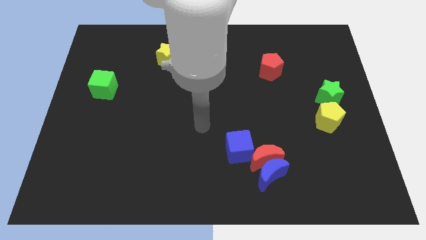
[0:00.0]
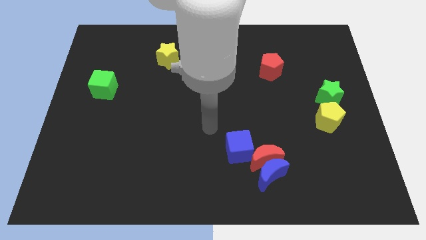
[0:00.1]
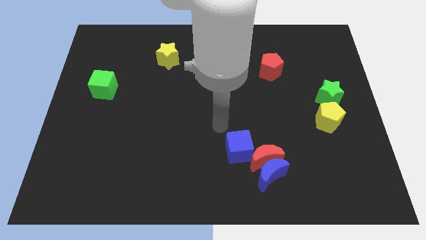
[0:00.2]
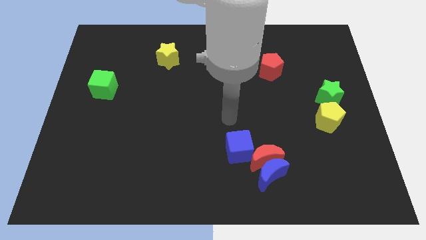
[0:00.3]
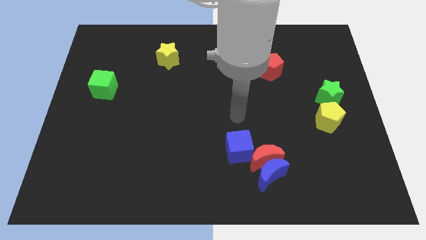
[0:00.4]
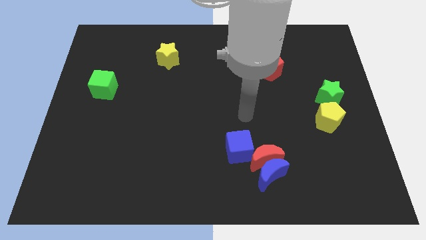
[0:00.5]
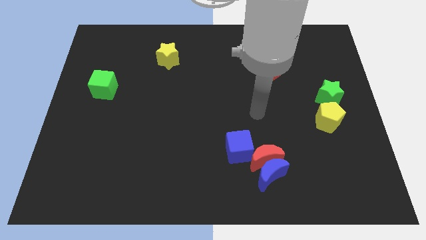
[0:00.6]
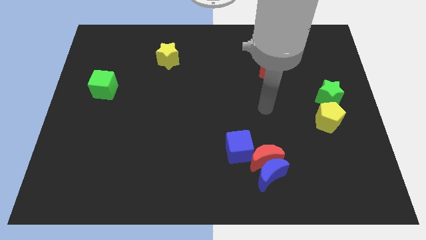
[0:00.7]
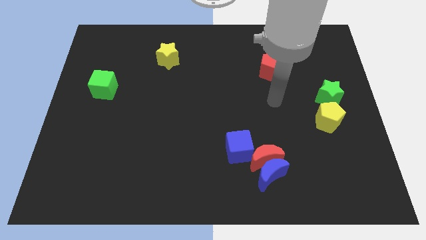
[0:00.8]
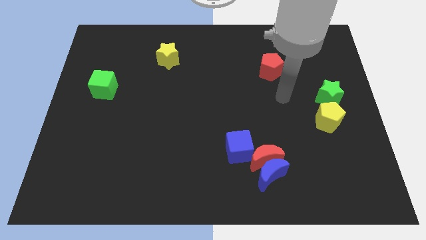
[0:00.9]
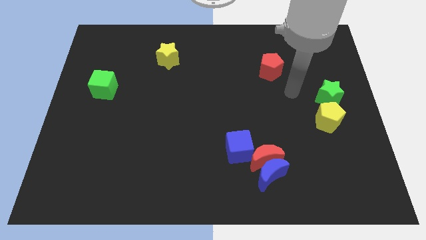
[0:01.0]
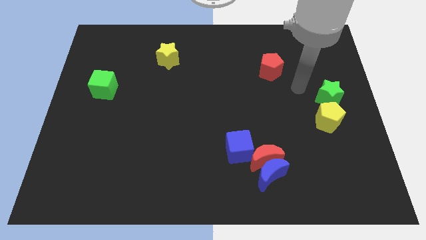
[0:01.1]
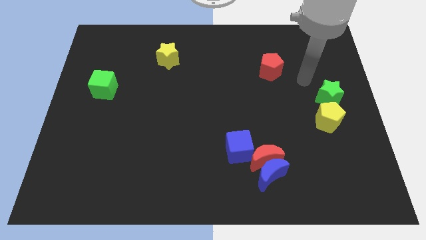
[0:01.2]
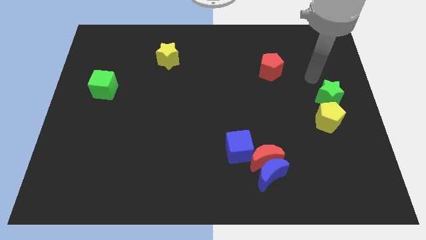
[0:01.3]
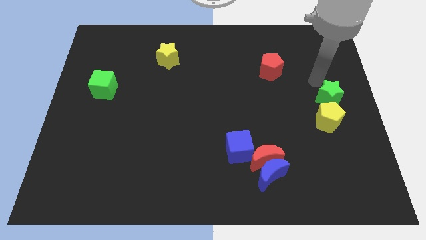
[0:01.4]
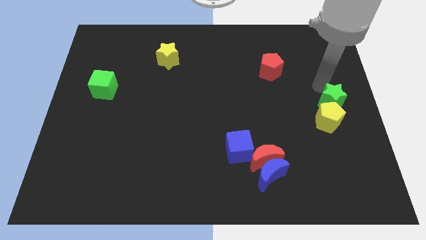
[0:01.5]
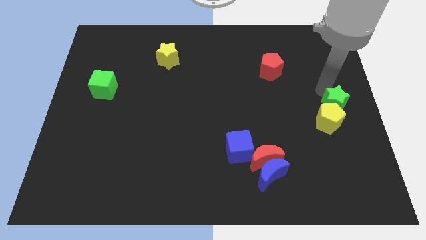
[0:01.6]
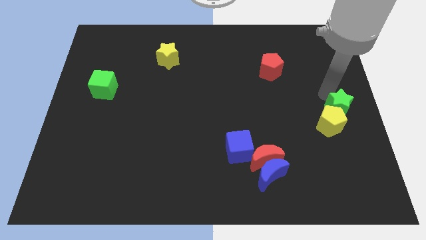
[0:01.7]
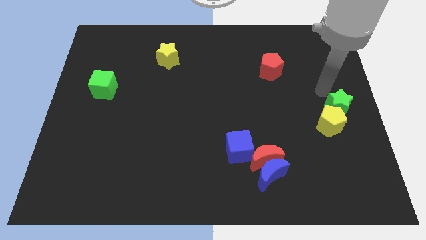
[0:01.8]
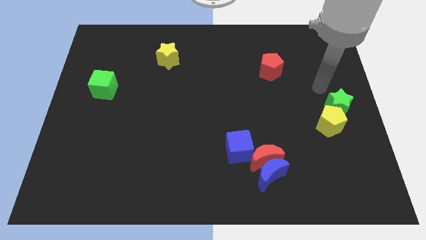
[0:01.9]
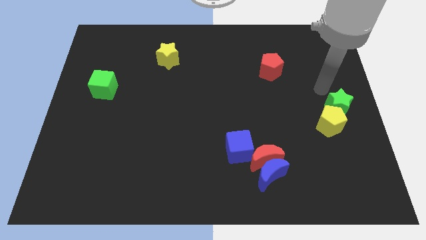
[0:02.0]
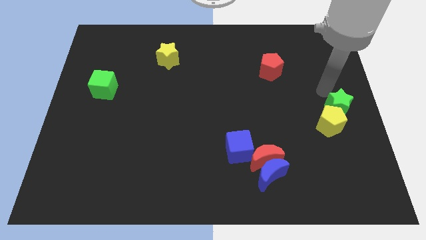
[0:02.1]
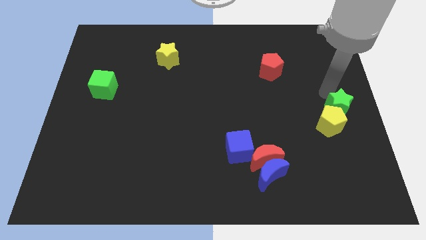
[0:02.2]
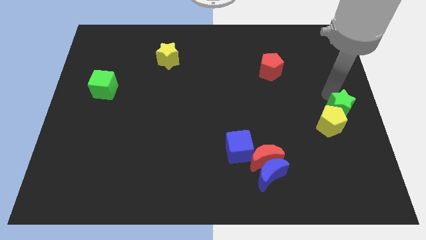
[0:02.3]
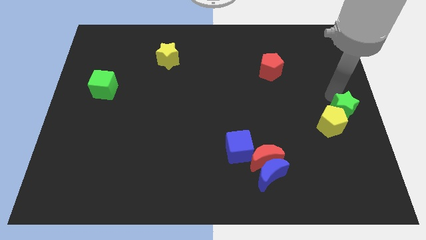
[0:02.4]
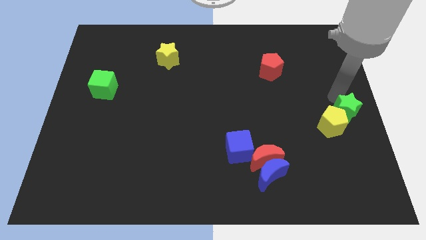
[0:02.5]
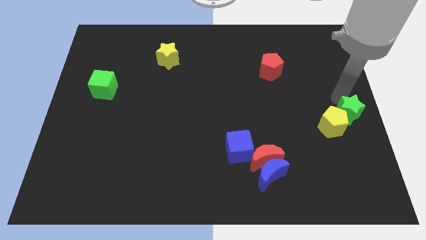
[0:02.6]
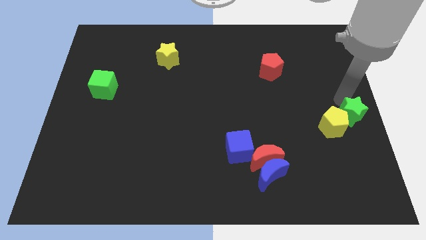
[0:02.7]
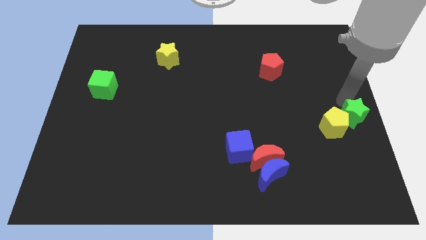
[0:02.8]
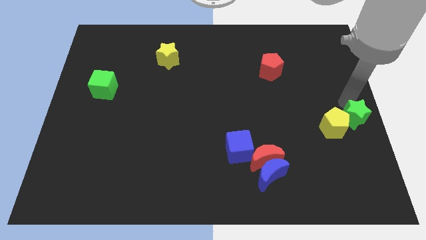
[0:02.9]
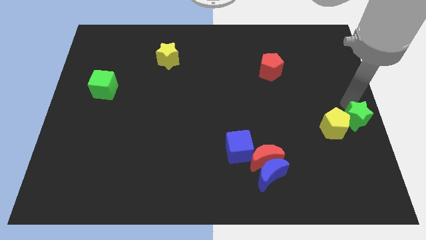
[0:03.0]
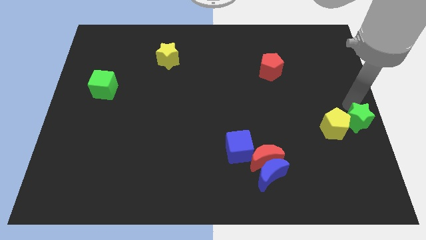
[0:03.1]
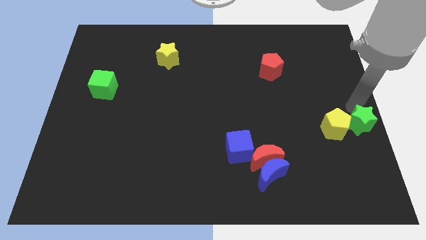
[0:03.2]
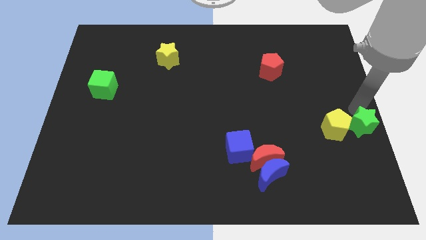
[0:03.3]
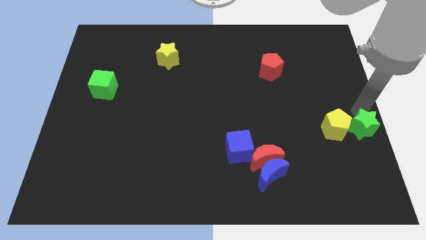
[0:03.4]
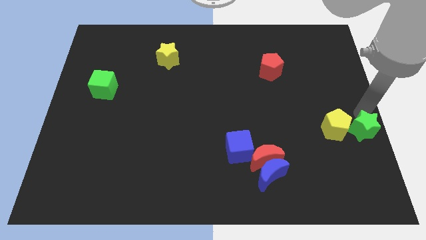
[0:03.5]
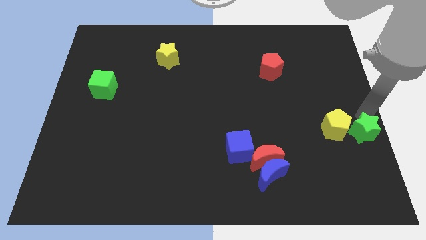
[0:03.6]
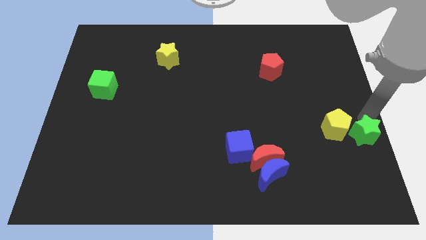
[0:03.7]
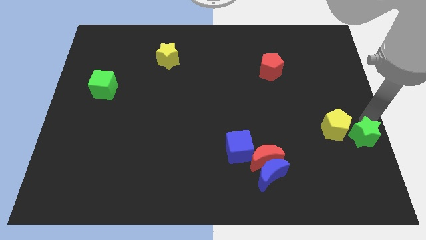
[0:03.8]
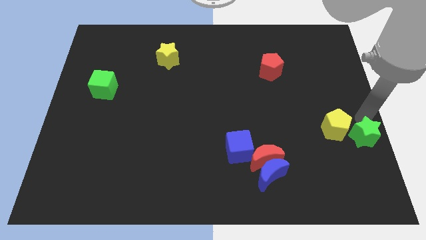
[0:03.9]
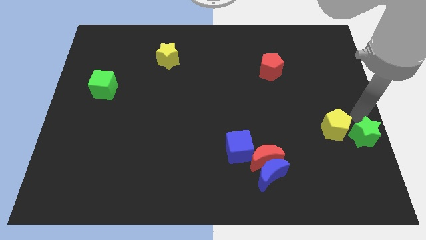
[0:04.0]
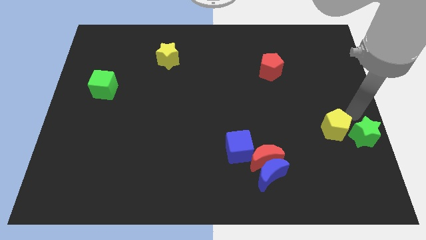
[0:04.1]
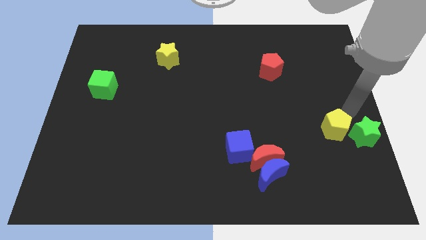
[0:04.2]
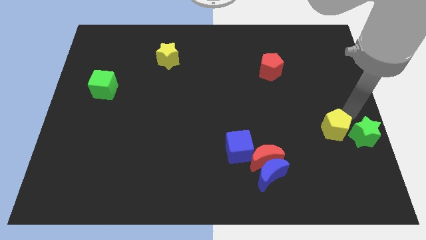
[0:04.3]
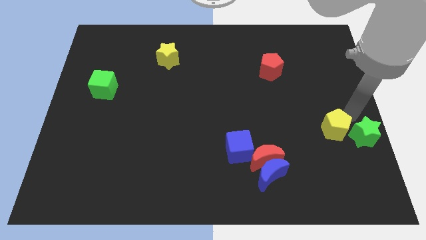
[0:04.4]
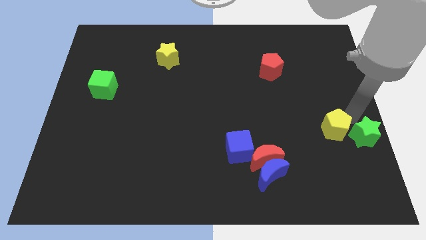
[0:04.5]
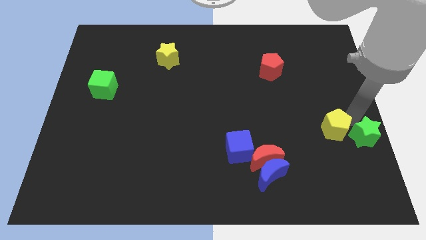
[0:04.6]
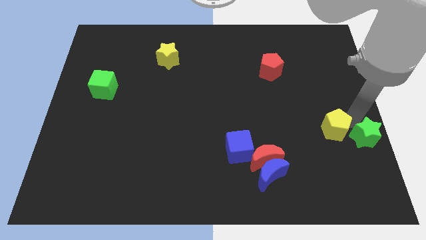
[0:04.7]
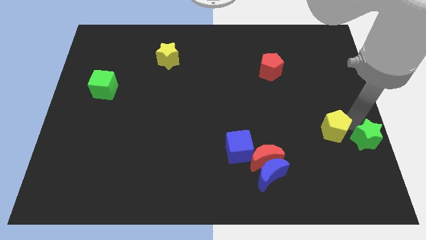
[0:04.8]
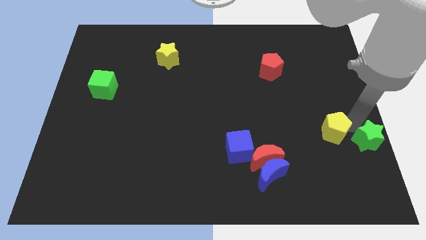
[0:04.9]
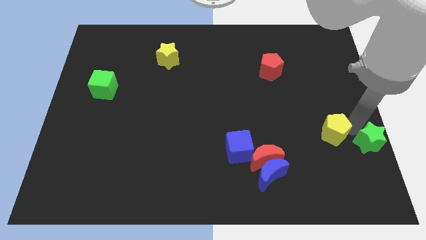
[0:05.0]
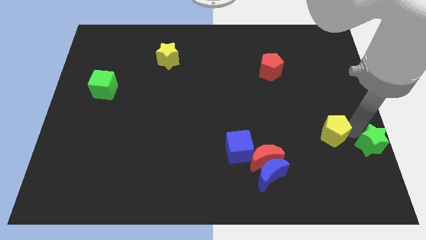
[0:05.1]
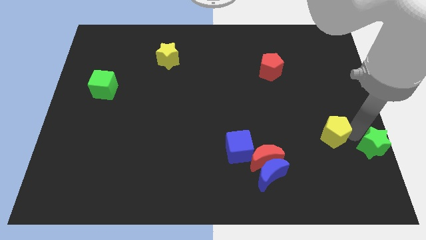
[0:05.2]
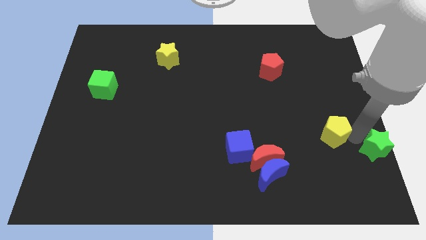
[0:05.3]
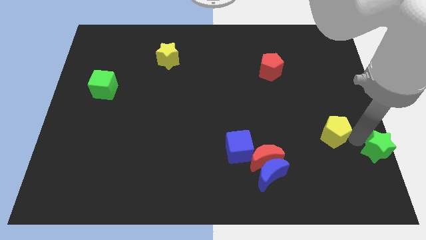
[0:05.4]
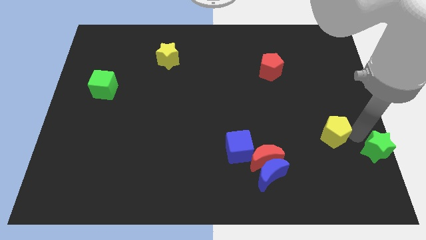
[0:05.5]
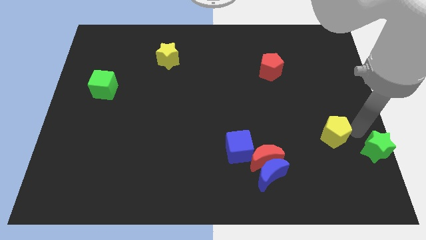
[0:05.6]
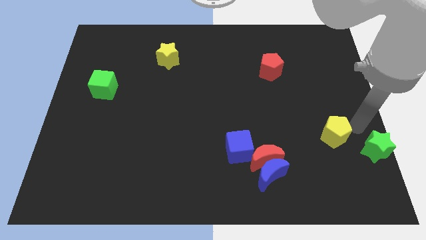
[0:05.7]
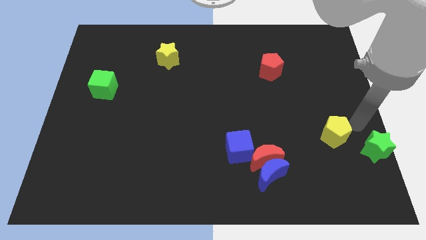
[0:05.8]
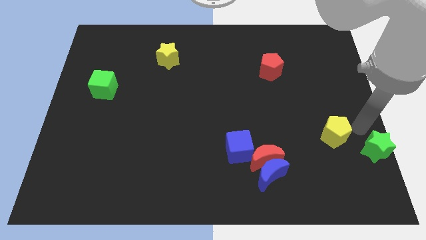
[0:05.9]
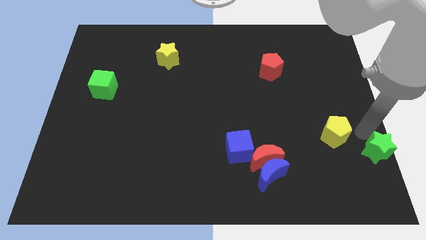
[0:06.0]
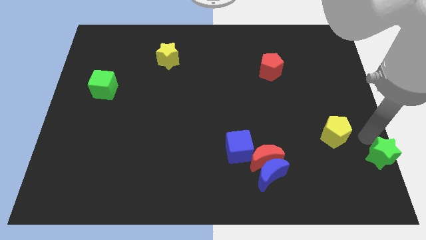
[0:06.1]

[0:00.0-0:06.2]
put the green star to the bottom right corner

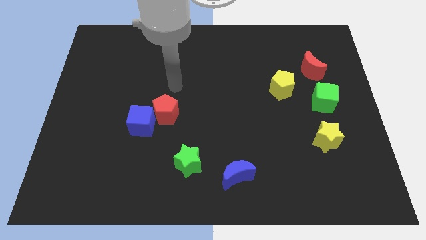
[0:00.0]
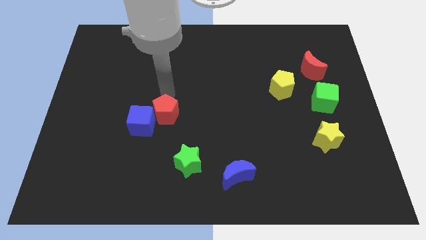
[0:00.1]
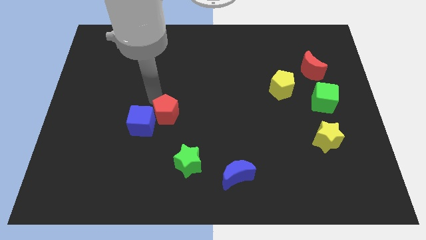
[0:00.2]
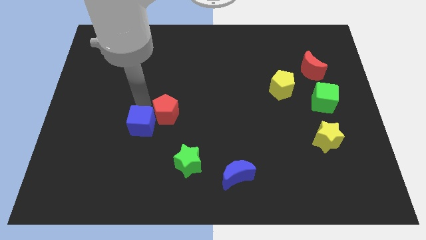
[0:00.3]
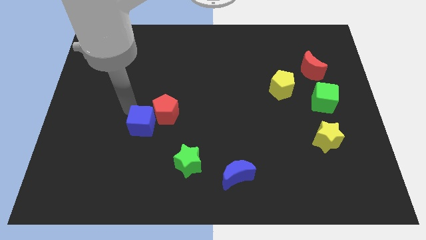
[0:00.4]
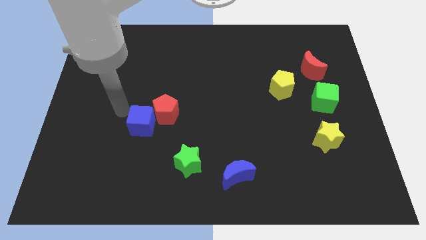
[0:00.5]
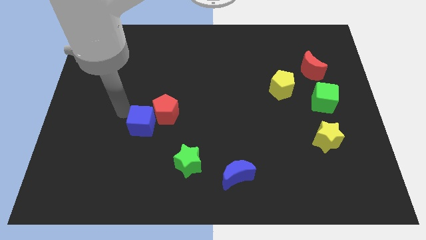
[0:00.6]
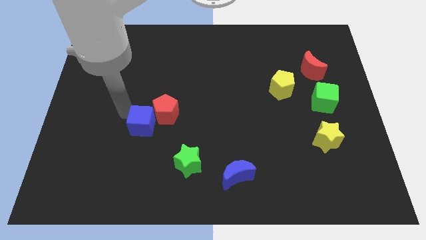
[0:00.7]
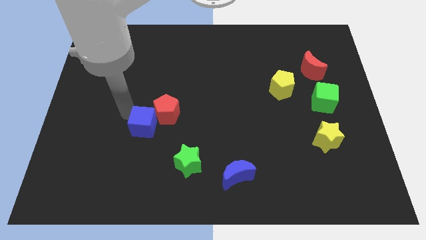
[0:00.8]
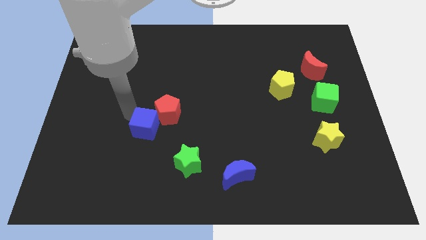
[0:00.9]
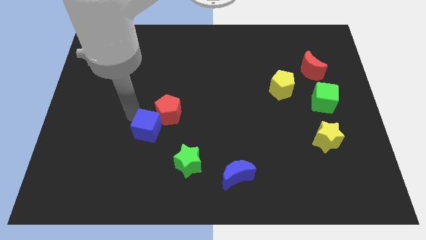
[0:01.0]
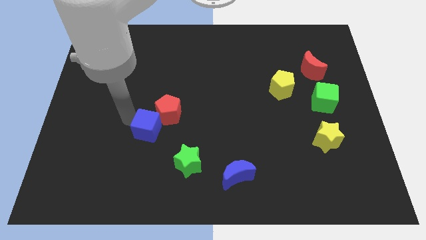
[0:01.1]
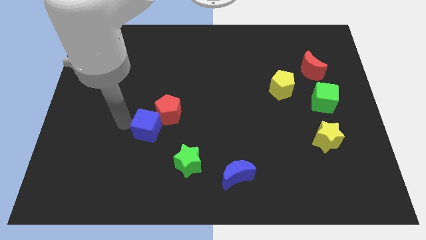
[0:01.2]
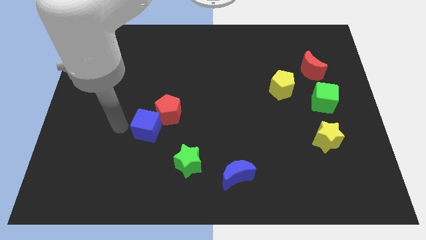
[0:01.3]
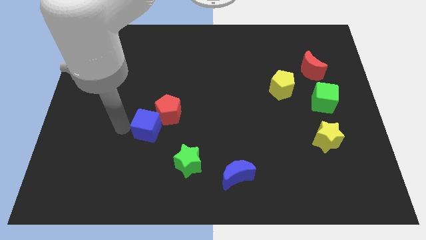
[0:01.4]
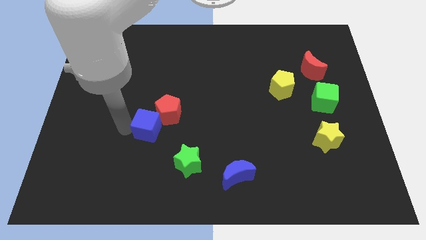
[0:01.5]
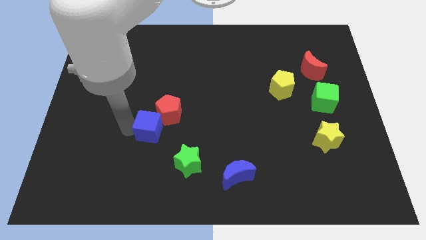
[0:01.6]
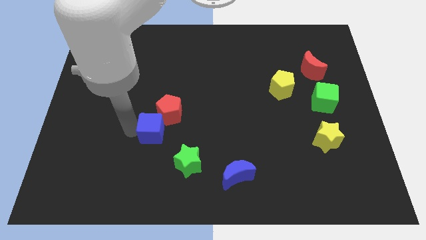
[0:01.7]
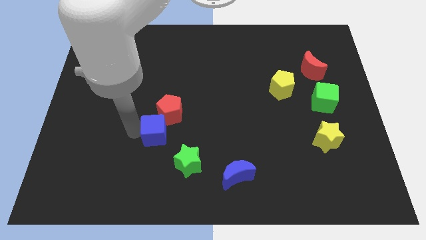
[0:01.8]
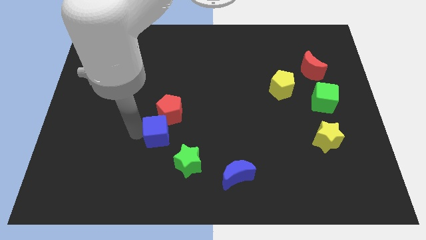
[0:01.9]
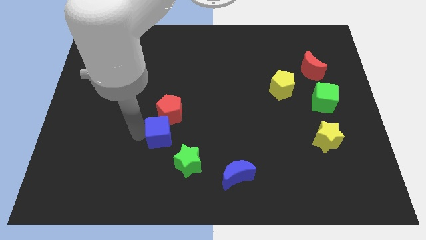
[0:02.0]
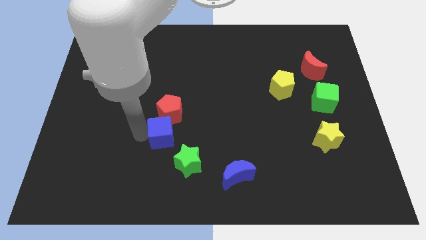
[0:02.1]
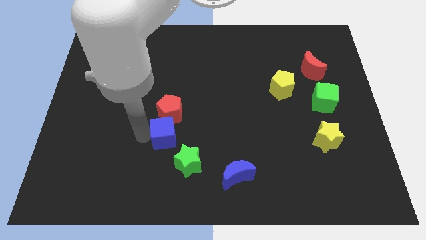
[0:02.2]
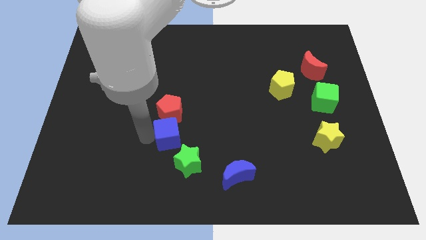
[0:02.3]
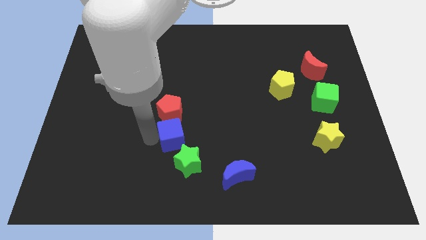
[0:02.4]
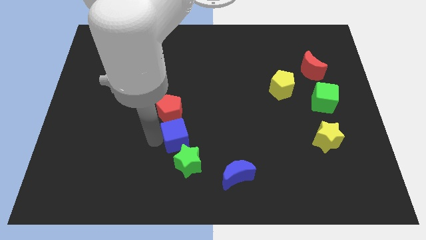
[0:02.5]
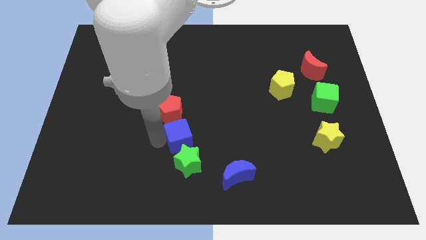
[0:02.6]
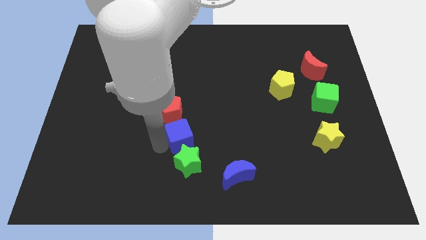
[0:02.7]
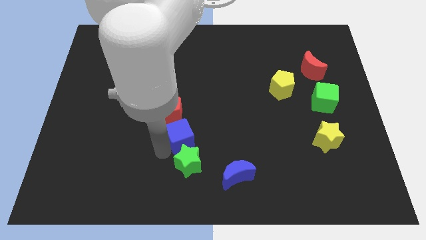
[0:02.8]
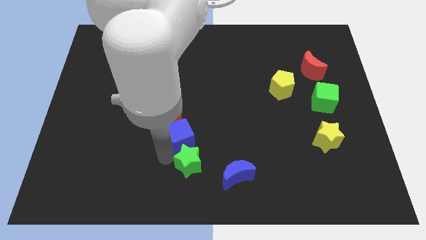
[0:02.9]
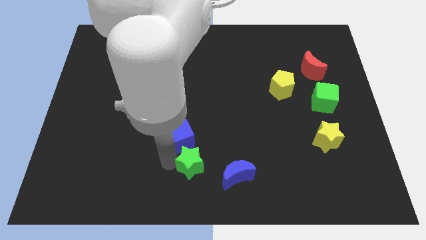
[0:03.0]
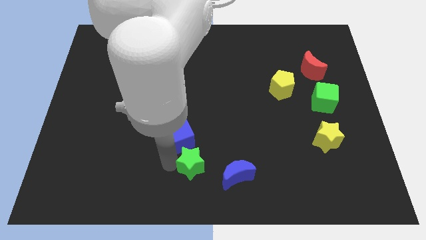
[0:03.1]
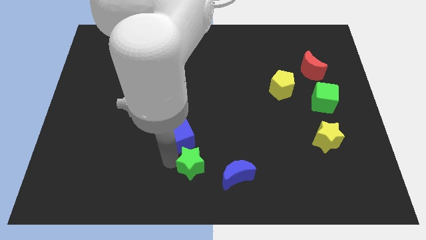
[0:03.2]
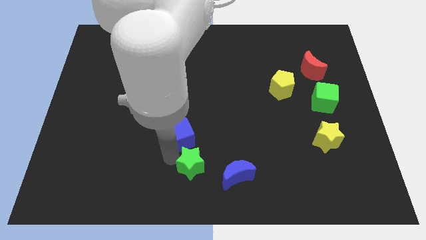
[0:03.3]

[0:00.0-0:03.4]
move the blue cube to the center of the board
